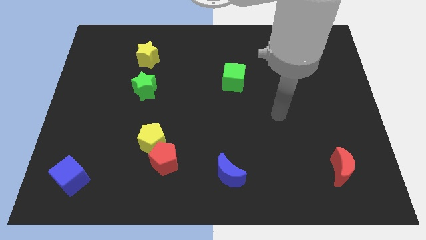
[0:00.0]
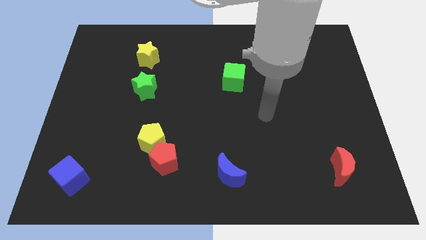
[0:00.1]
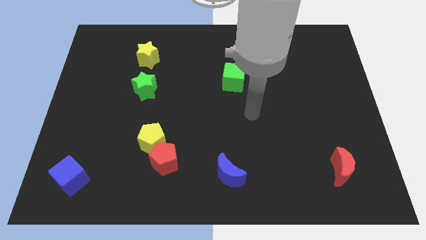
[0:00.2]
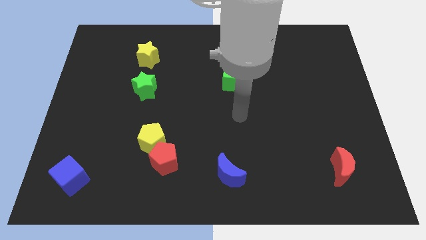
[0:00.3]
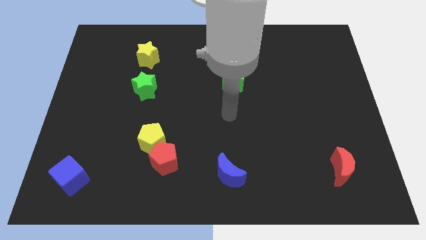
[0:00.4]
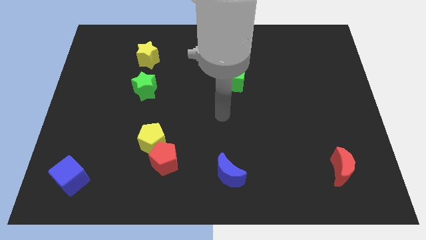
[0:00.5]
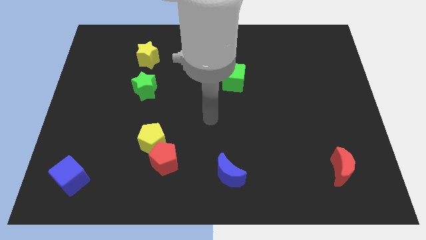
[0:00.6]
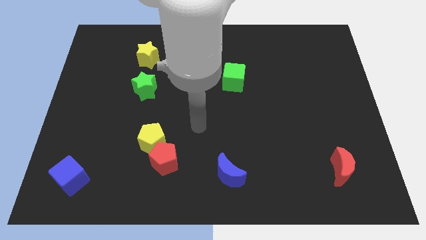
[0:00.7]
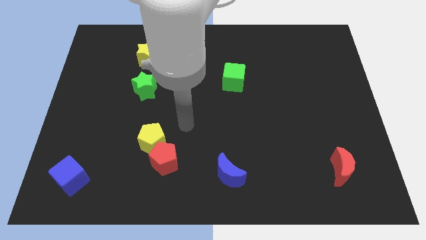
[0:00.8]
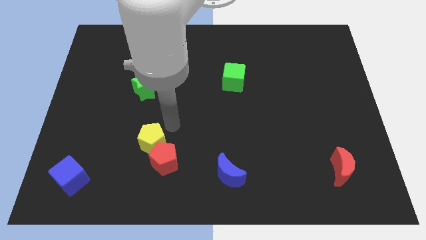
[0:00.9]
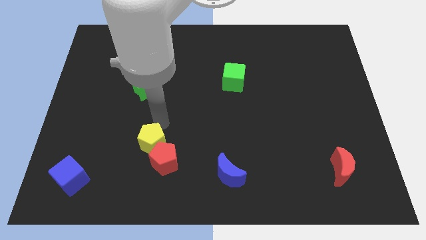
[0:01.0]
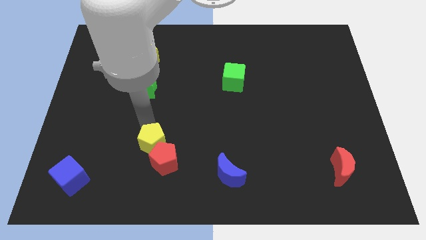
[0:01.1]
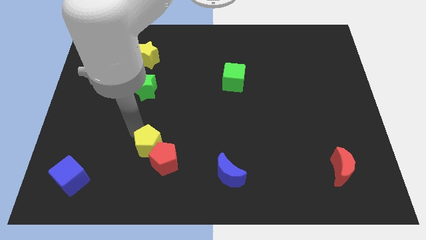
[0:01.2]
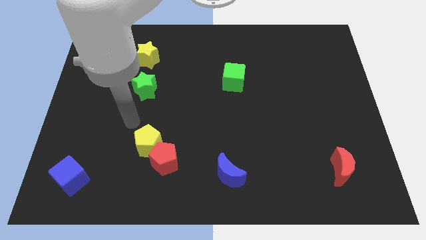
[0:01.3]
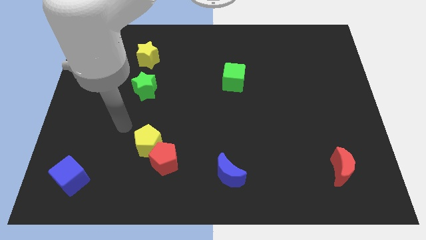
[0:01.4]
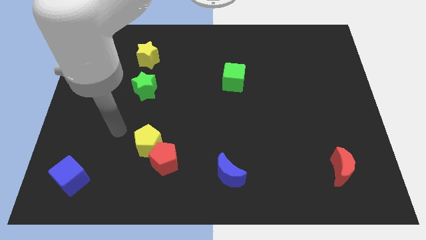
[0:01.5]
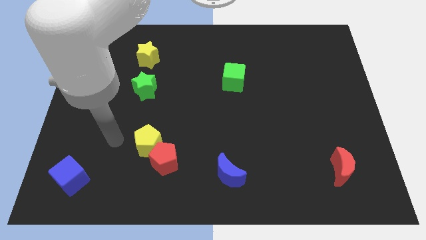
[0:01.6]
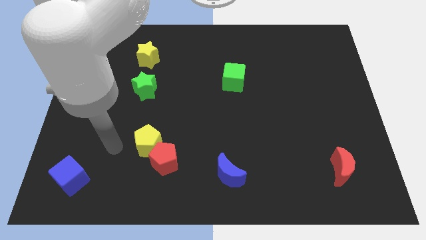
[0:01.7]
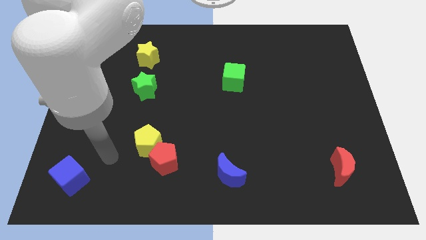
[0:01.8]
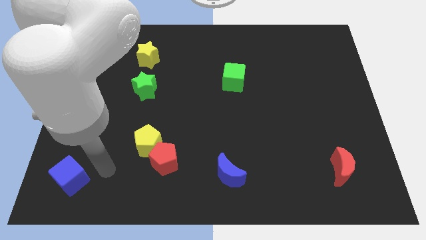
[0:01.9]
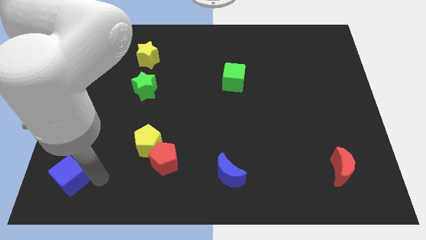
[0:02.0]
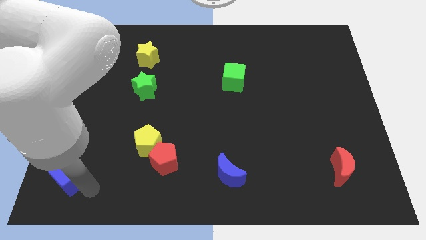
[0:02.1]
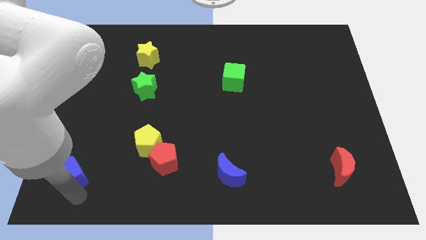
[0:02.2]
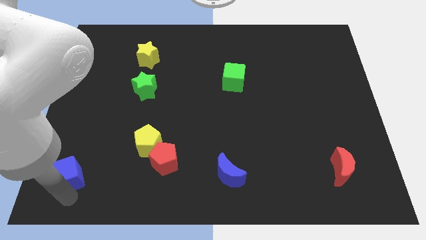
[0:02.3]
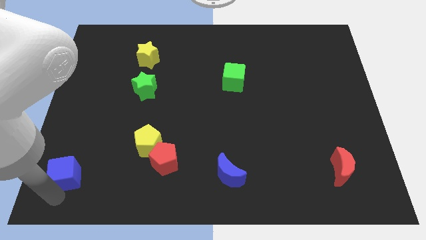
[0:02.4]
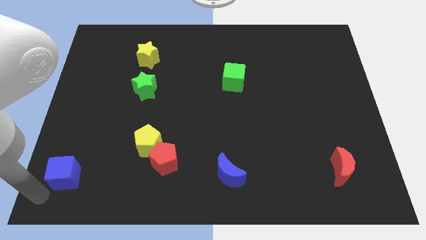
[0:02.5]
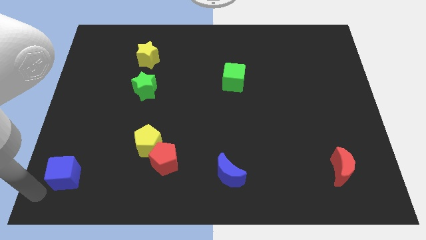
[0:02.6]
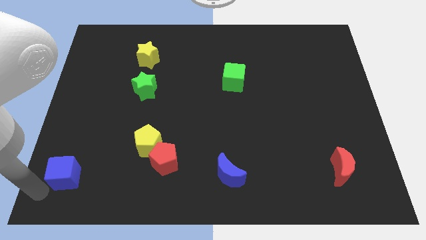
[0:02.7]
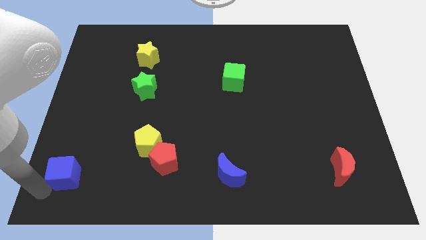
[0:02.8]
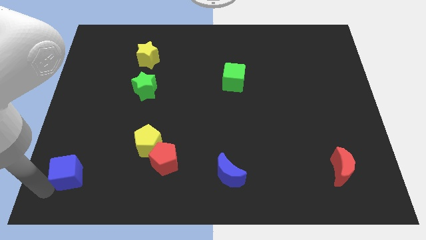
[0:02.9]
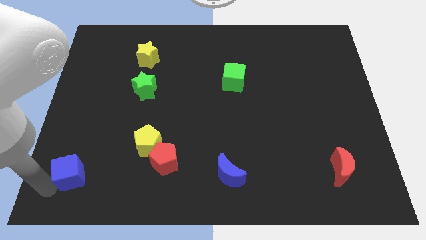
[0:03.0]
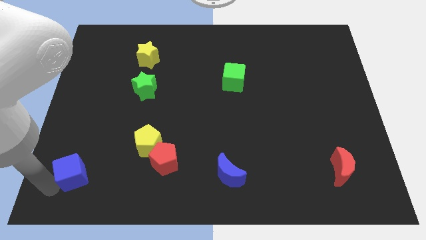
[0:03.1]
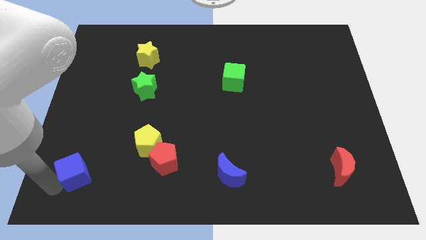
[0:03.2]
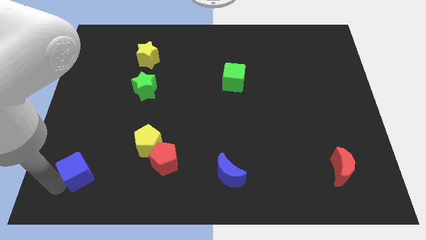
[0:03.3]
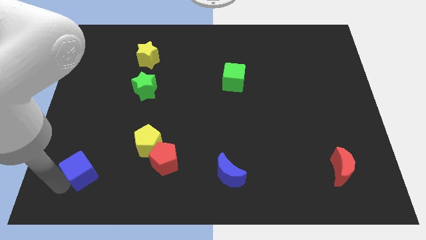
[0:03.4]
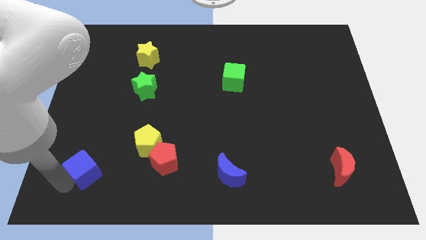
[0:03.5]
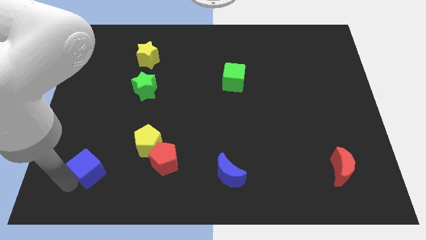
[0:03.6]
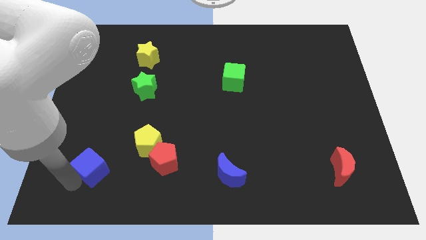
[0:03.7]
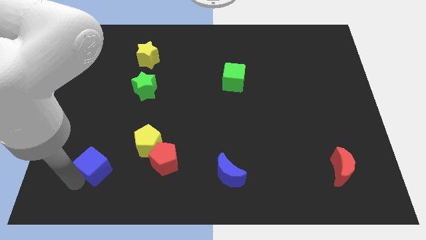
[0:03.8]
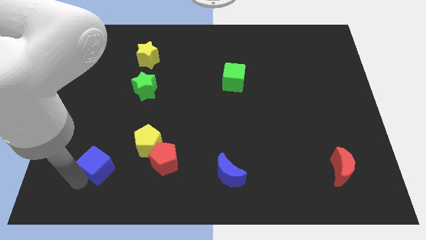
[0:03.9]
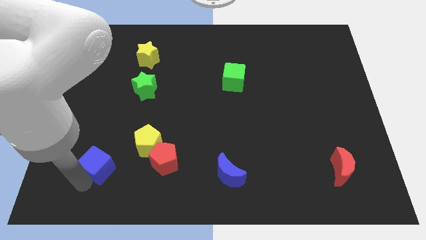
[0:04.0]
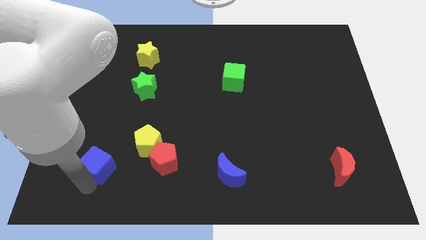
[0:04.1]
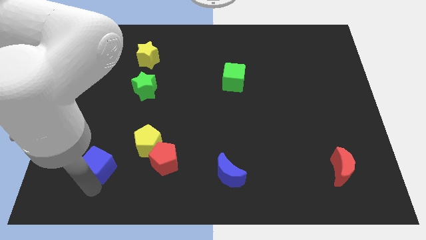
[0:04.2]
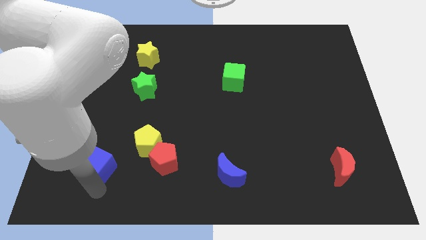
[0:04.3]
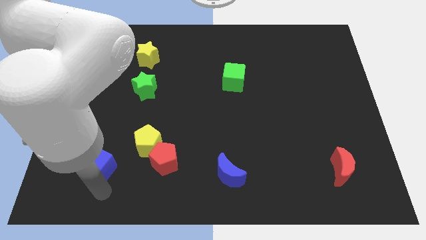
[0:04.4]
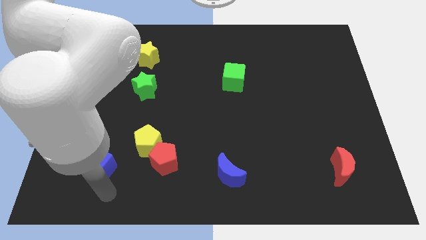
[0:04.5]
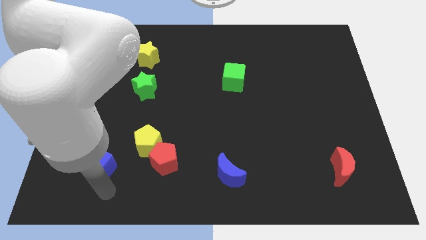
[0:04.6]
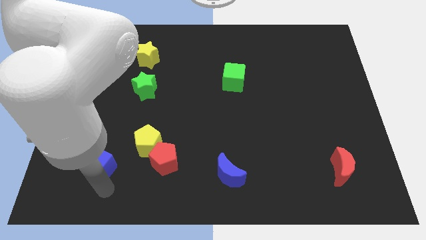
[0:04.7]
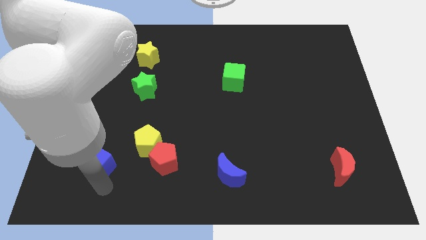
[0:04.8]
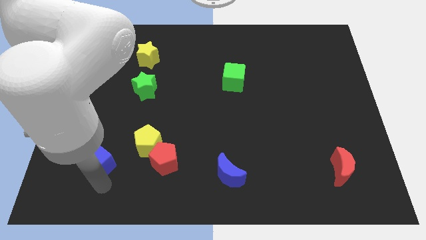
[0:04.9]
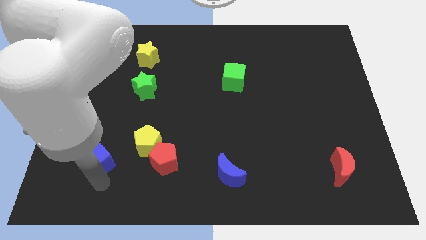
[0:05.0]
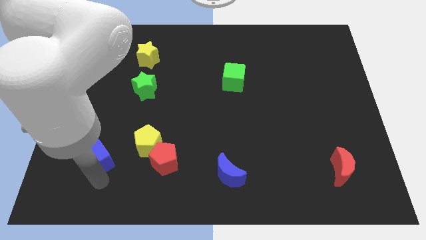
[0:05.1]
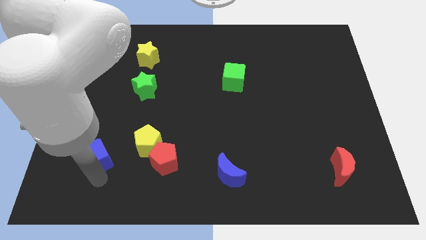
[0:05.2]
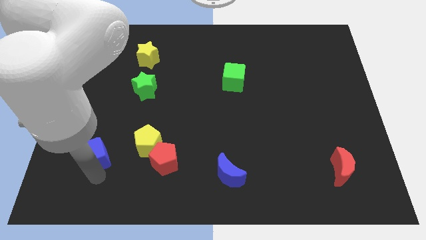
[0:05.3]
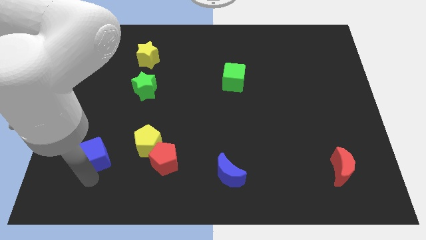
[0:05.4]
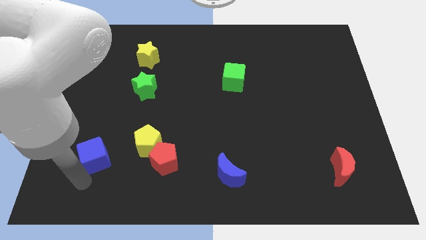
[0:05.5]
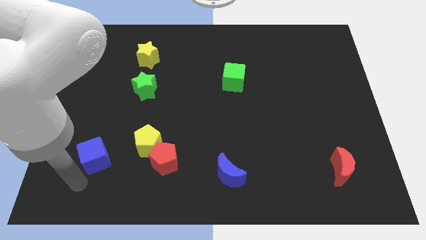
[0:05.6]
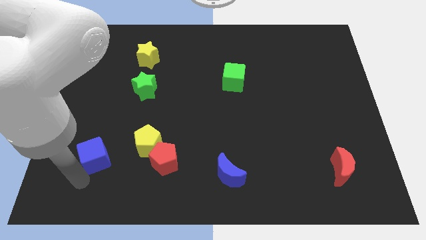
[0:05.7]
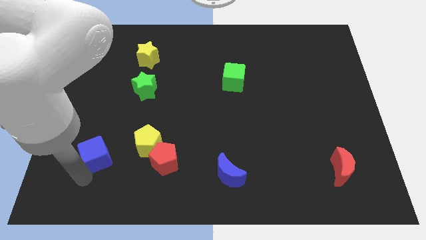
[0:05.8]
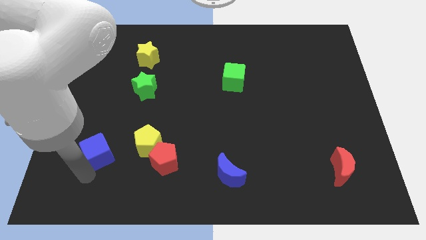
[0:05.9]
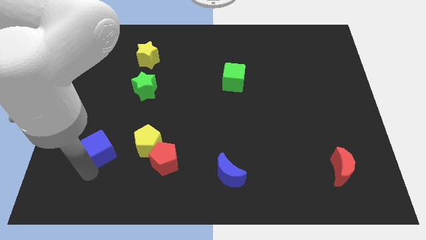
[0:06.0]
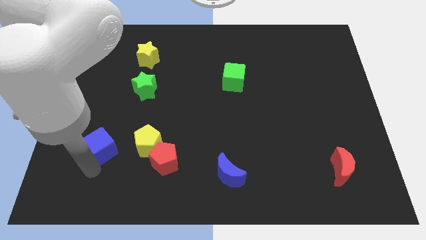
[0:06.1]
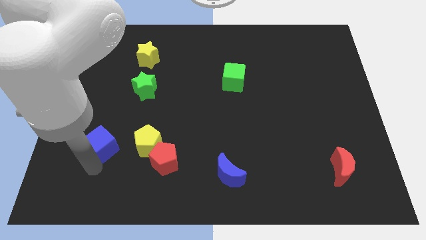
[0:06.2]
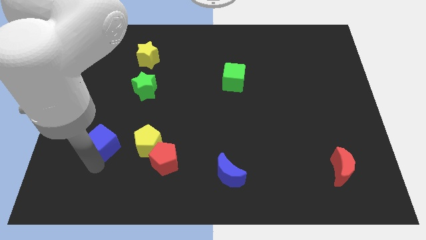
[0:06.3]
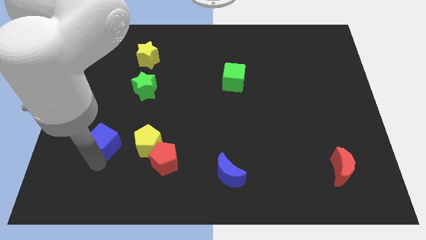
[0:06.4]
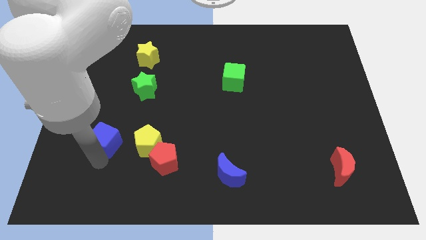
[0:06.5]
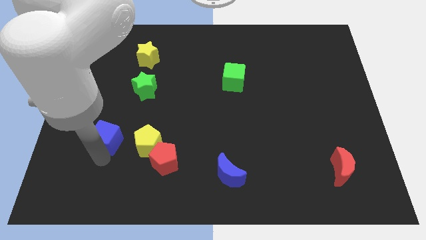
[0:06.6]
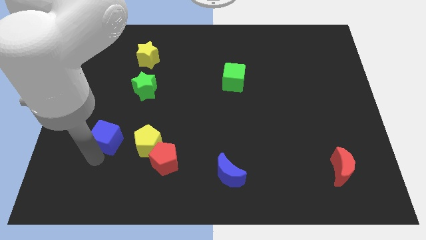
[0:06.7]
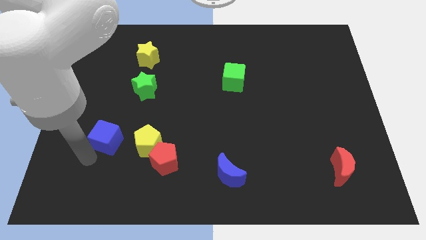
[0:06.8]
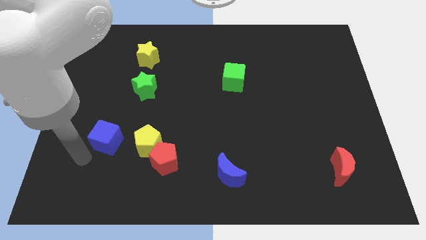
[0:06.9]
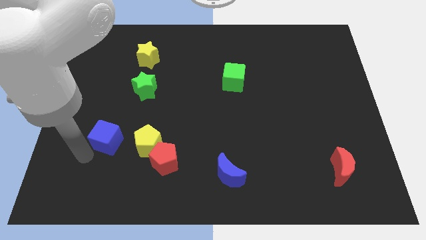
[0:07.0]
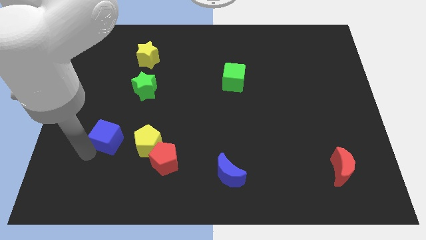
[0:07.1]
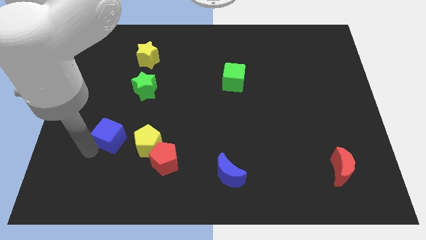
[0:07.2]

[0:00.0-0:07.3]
slide the blue cube to the top left side of the yellow pentagon
